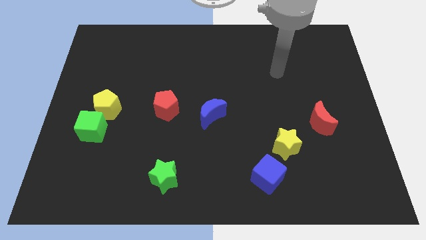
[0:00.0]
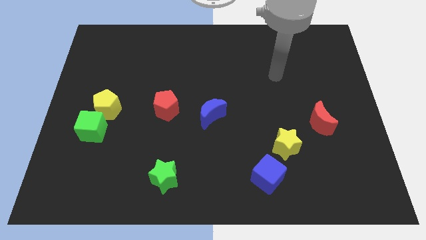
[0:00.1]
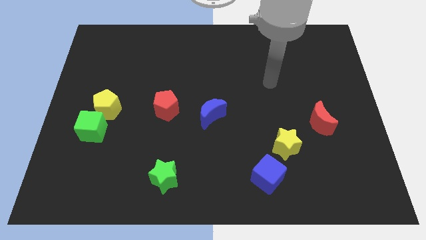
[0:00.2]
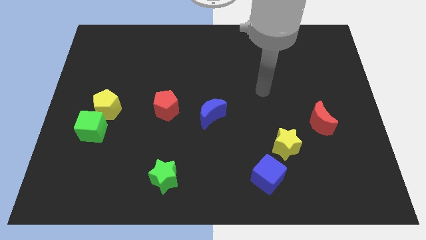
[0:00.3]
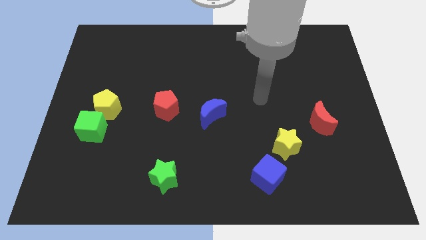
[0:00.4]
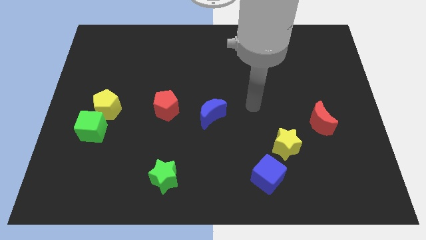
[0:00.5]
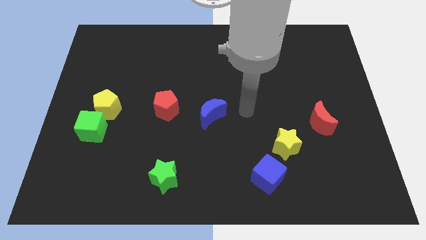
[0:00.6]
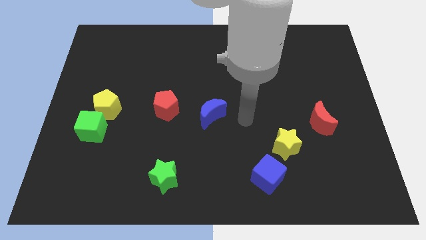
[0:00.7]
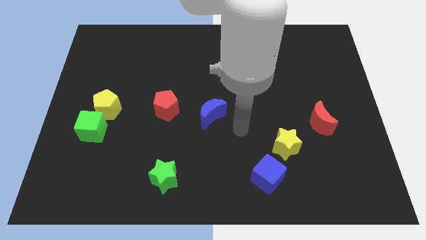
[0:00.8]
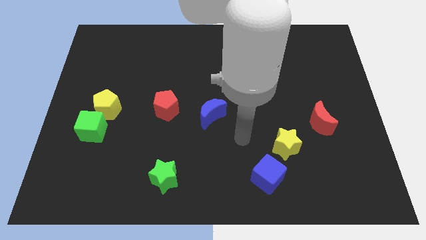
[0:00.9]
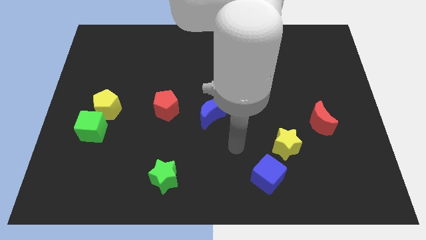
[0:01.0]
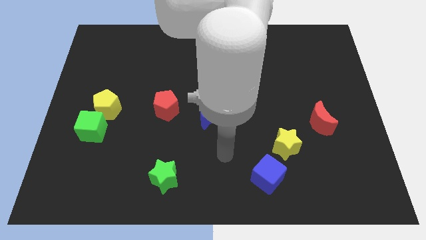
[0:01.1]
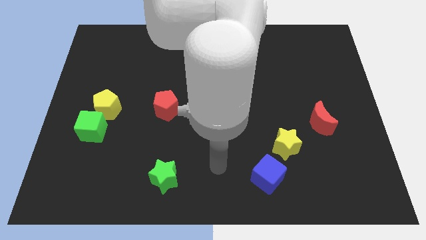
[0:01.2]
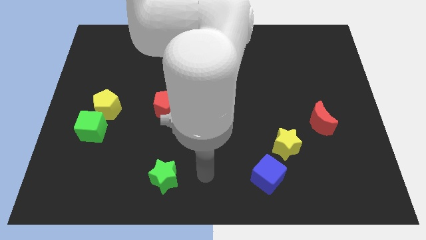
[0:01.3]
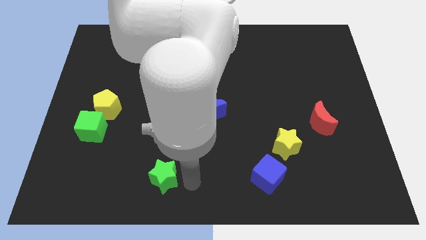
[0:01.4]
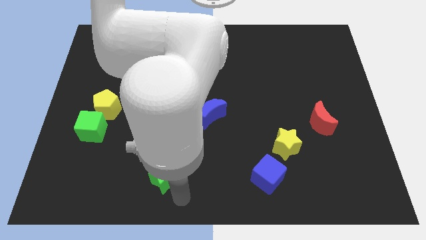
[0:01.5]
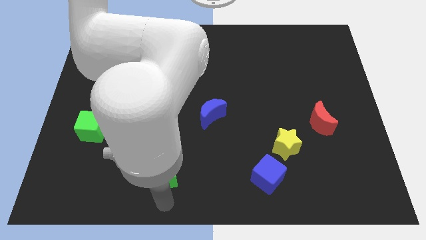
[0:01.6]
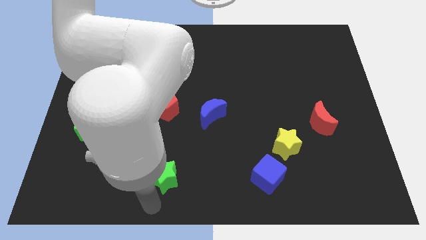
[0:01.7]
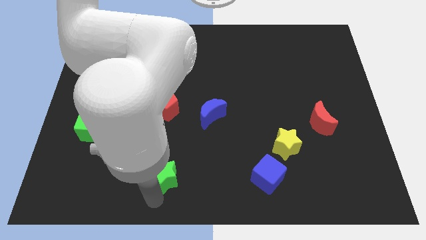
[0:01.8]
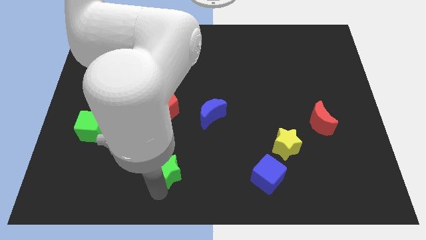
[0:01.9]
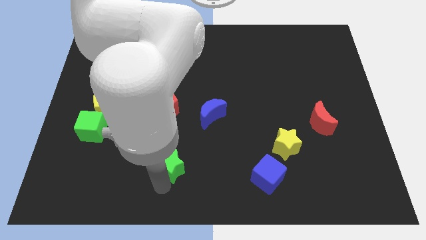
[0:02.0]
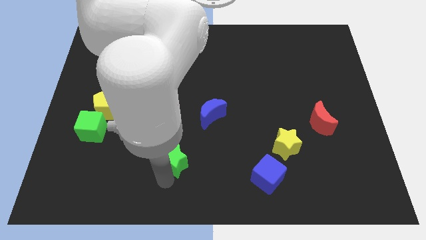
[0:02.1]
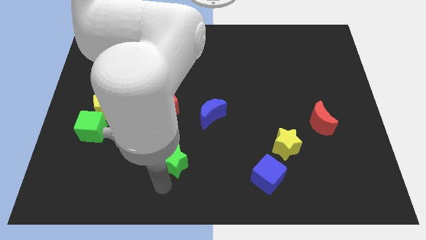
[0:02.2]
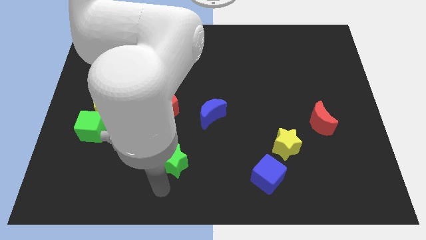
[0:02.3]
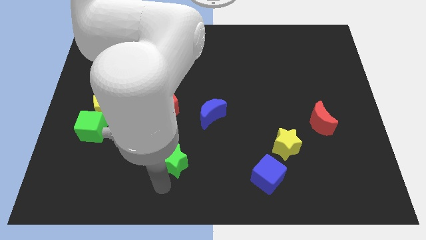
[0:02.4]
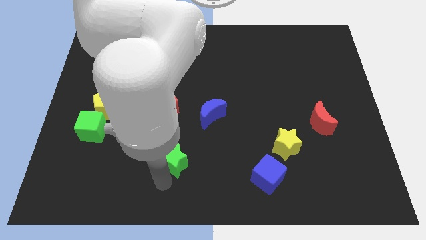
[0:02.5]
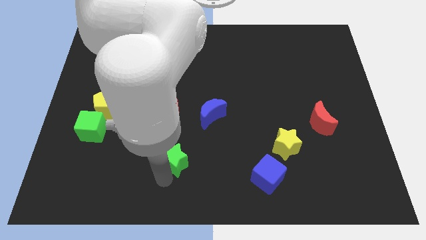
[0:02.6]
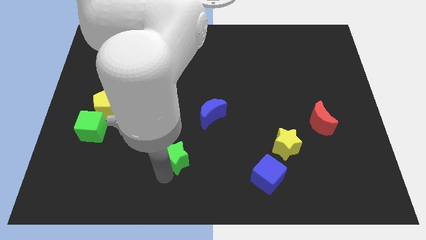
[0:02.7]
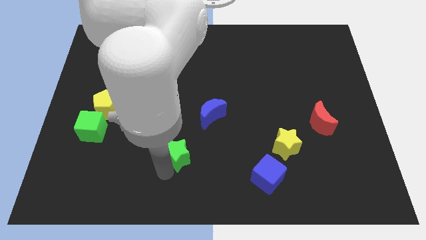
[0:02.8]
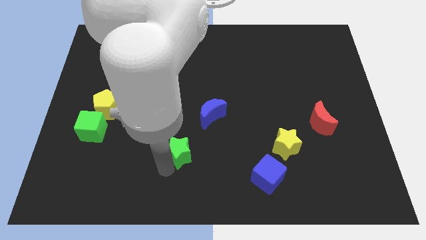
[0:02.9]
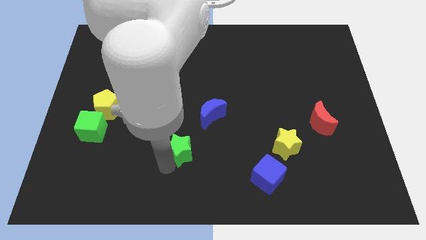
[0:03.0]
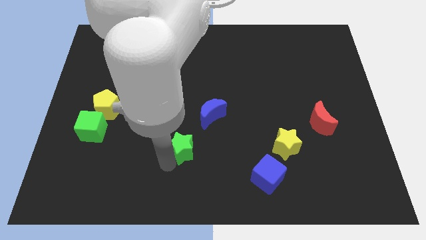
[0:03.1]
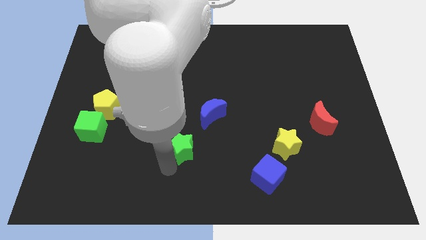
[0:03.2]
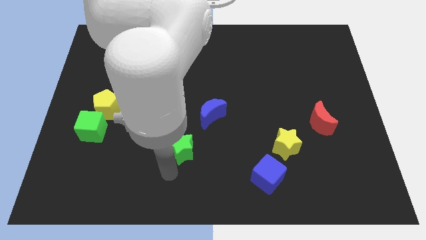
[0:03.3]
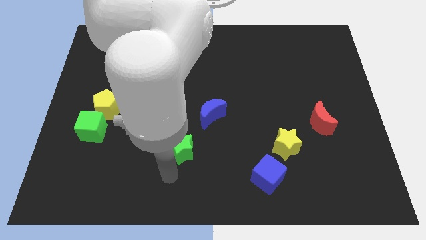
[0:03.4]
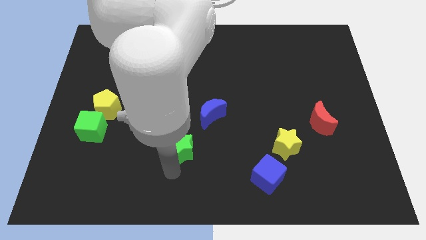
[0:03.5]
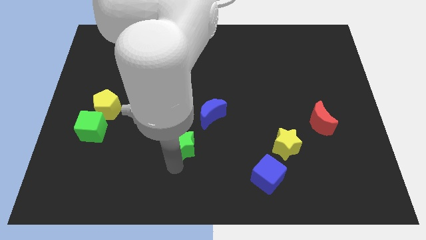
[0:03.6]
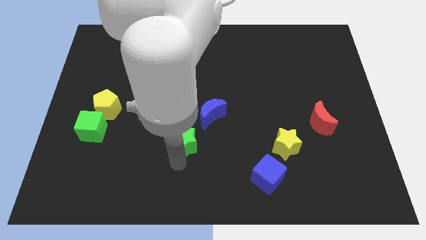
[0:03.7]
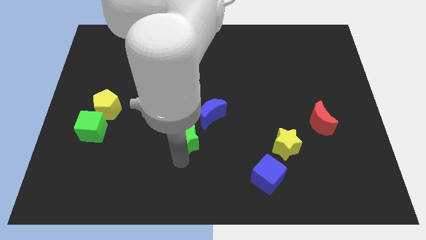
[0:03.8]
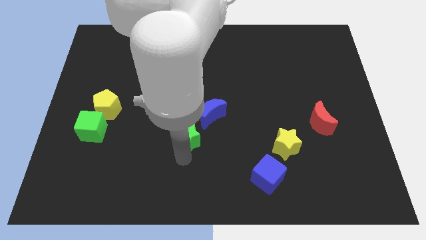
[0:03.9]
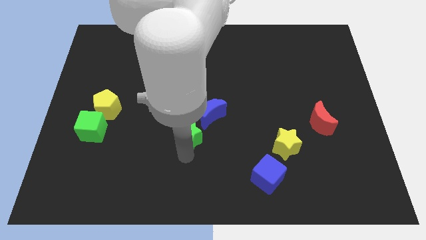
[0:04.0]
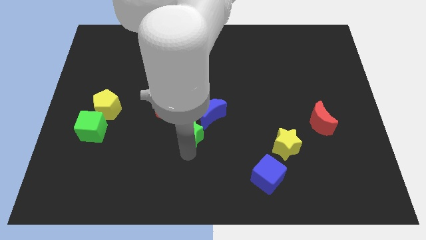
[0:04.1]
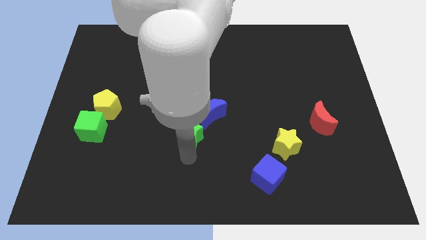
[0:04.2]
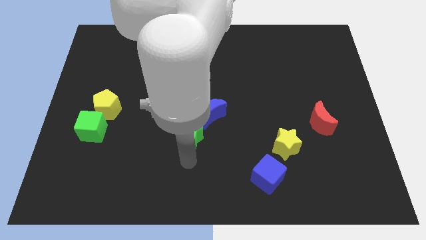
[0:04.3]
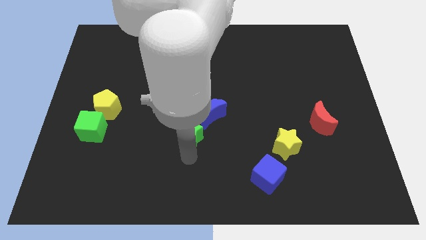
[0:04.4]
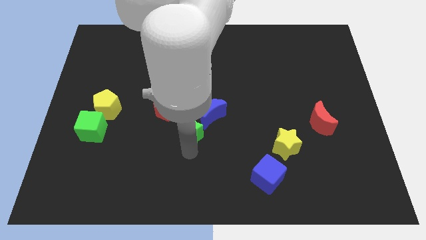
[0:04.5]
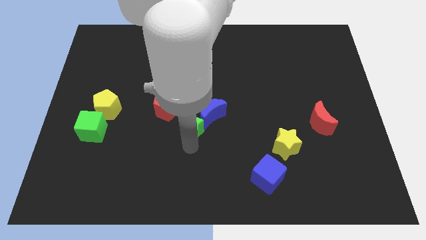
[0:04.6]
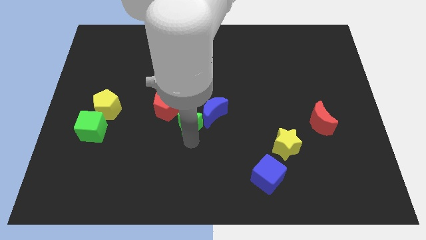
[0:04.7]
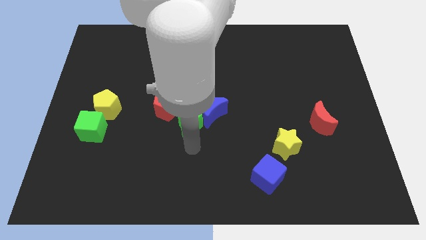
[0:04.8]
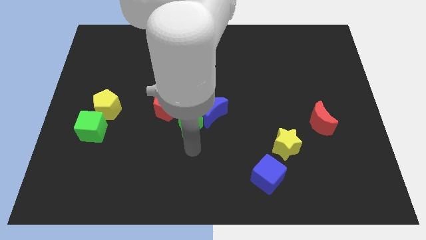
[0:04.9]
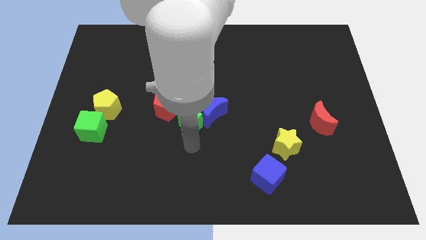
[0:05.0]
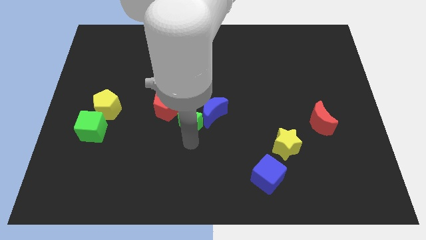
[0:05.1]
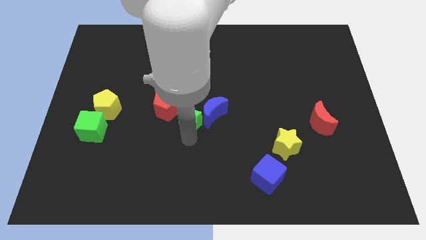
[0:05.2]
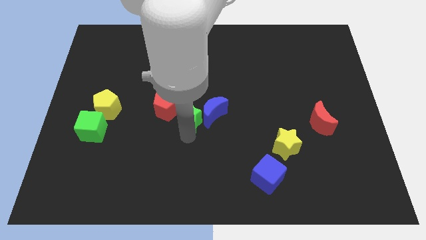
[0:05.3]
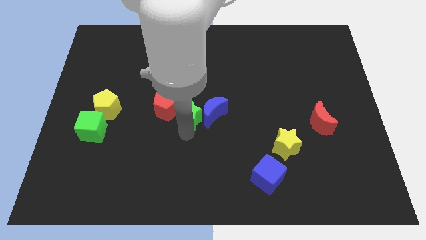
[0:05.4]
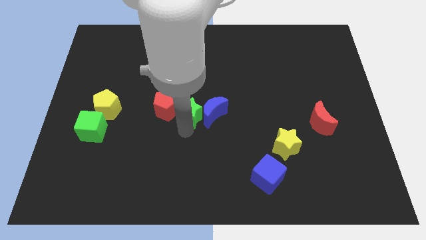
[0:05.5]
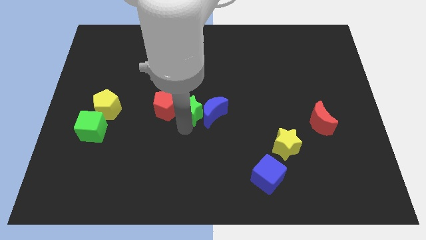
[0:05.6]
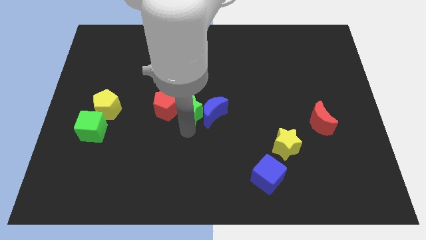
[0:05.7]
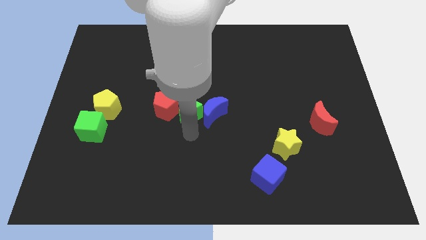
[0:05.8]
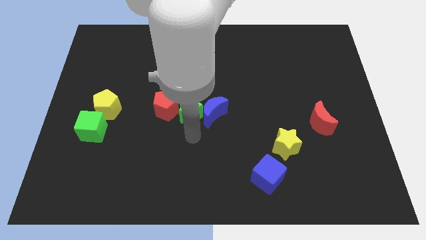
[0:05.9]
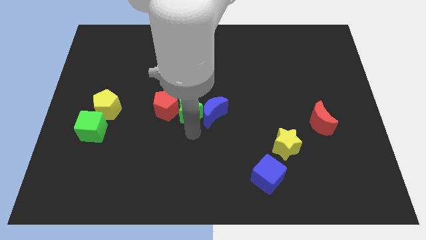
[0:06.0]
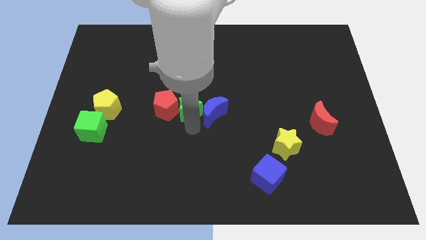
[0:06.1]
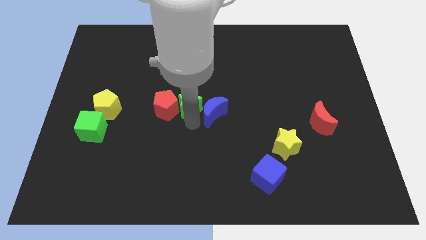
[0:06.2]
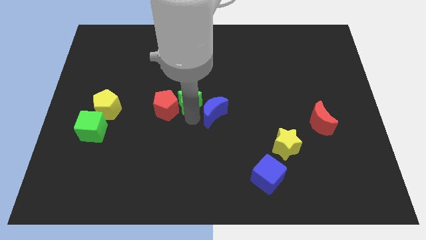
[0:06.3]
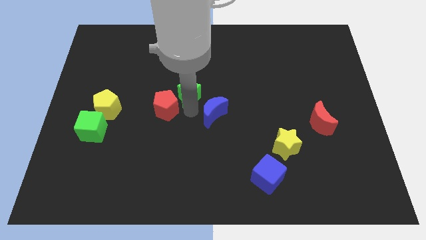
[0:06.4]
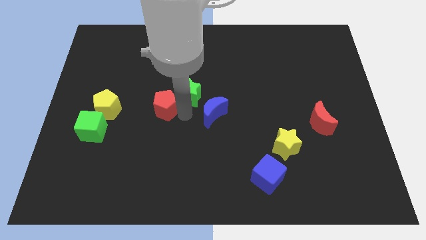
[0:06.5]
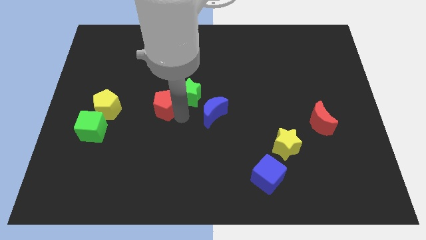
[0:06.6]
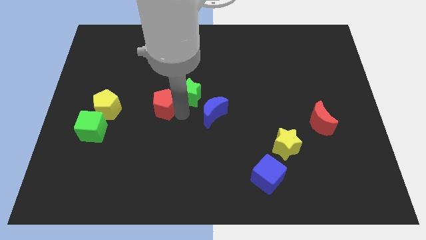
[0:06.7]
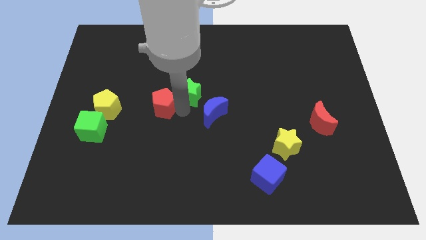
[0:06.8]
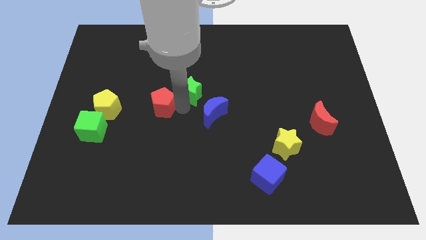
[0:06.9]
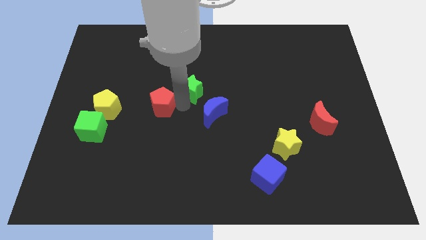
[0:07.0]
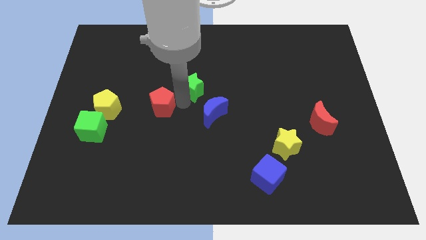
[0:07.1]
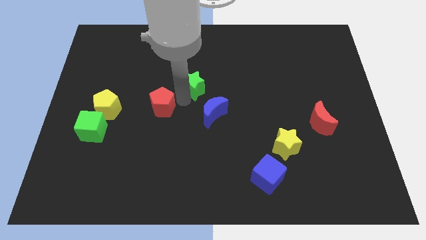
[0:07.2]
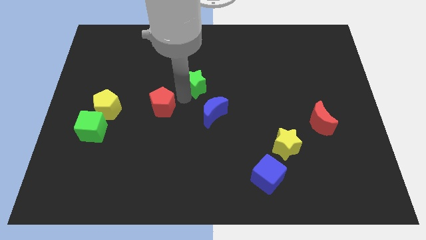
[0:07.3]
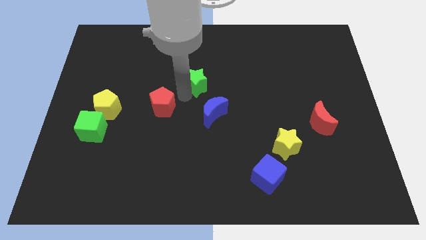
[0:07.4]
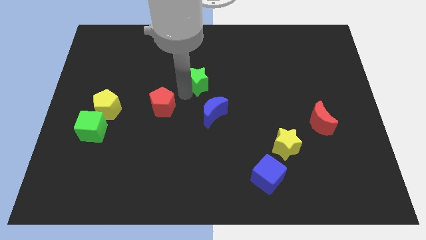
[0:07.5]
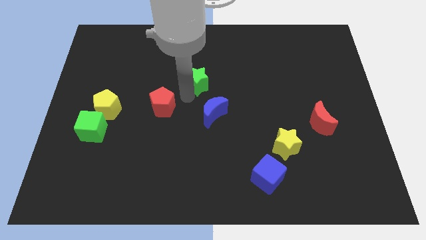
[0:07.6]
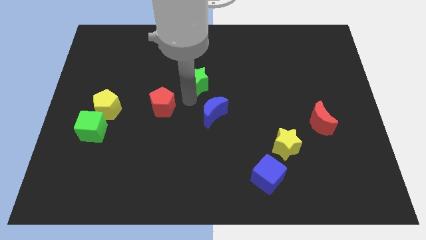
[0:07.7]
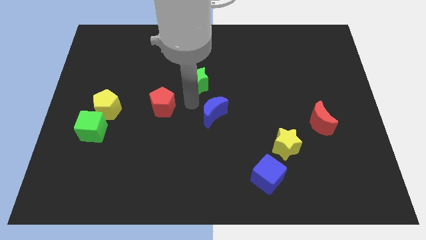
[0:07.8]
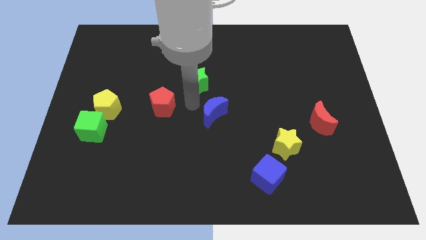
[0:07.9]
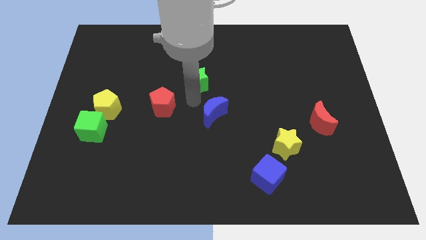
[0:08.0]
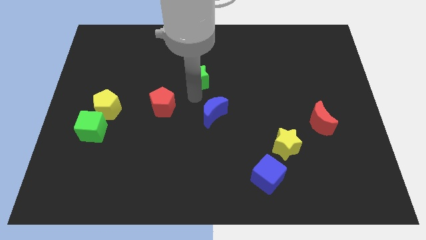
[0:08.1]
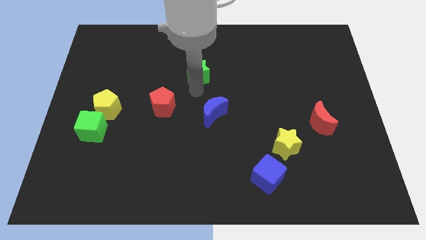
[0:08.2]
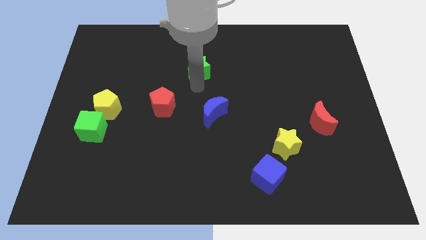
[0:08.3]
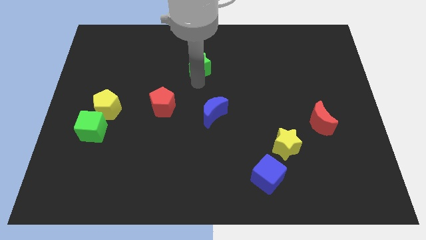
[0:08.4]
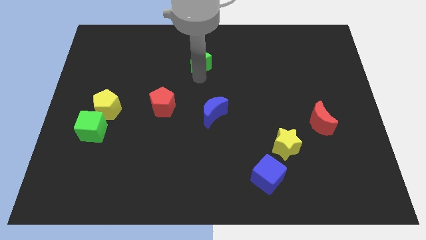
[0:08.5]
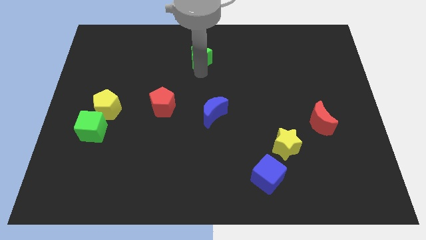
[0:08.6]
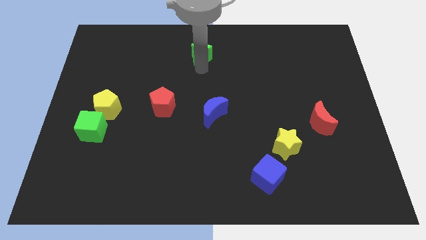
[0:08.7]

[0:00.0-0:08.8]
push the green star to the top side
